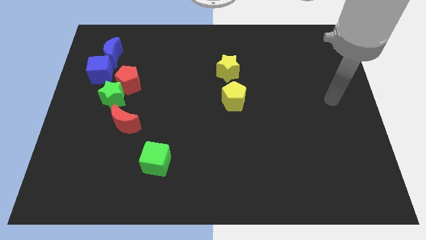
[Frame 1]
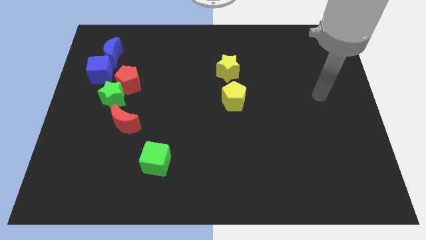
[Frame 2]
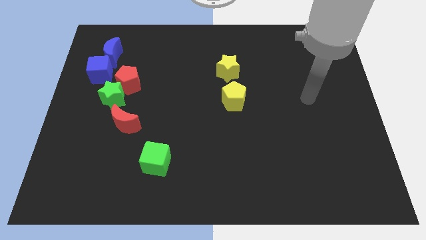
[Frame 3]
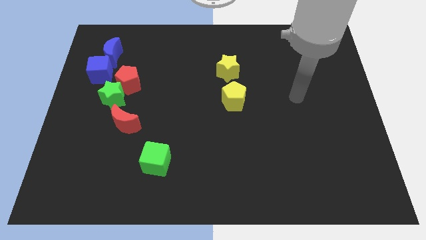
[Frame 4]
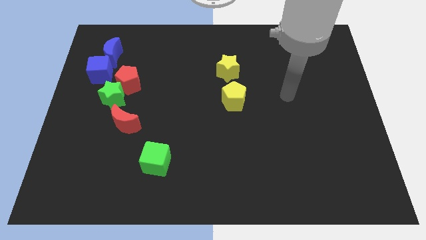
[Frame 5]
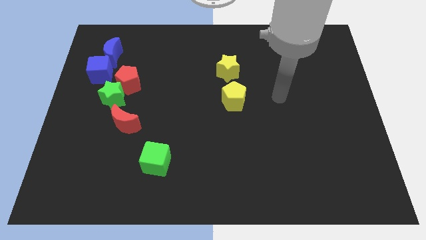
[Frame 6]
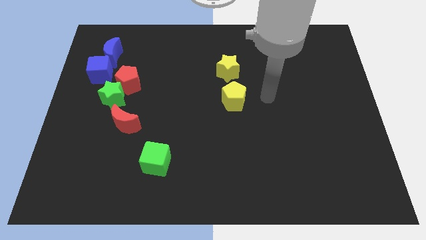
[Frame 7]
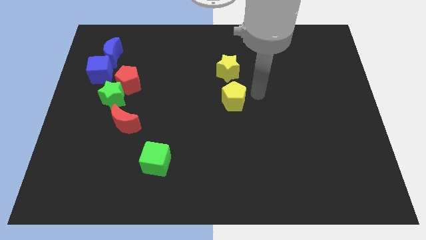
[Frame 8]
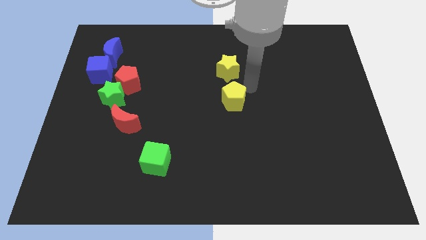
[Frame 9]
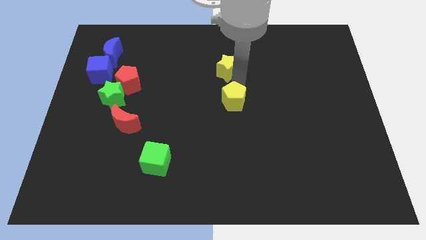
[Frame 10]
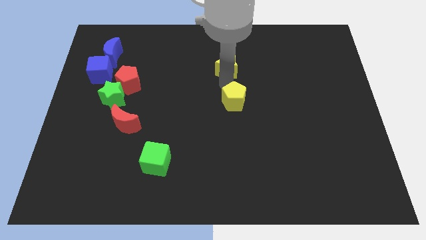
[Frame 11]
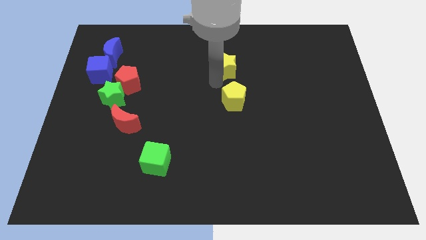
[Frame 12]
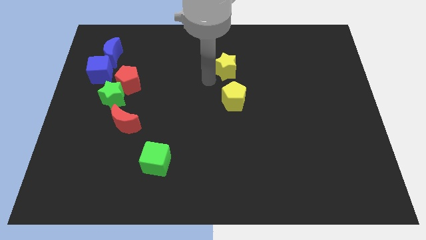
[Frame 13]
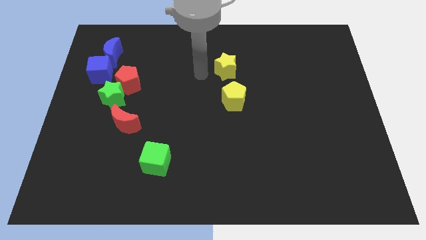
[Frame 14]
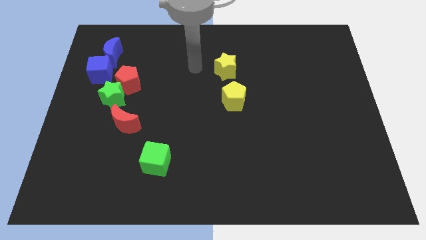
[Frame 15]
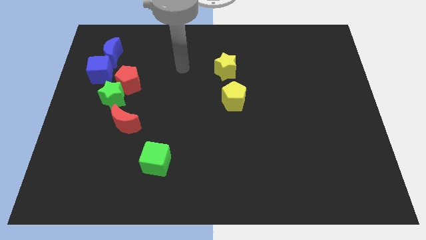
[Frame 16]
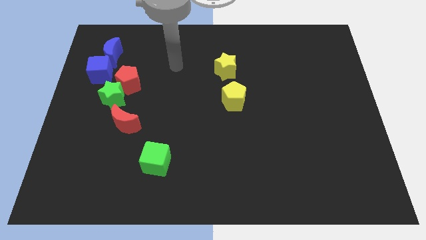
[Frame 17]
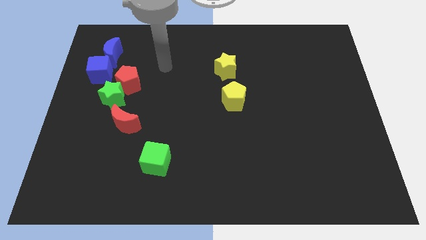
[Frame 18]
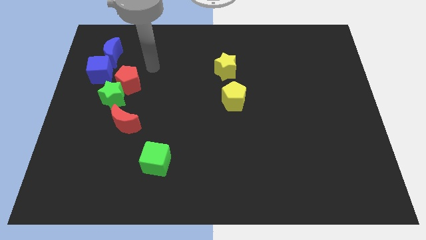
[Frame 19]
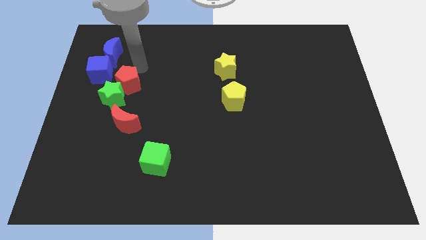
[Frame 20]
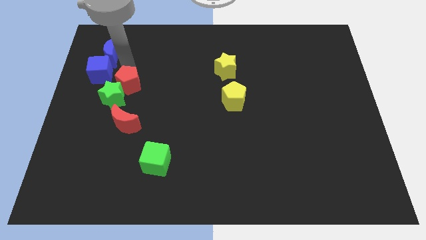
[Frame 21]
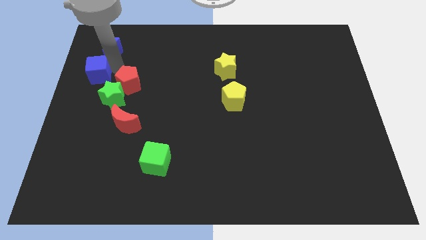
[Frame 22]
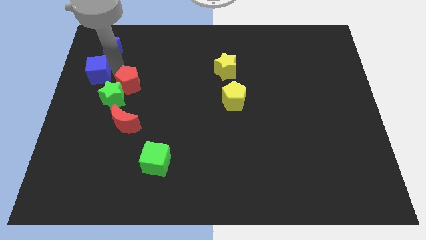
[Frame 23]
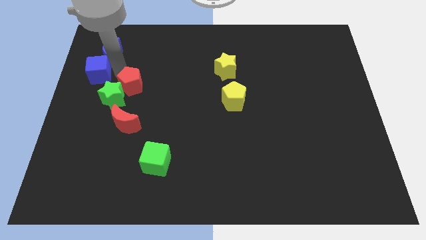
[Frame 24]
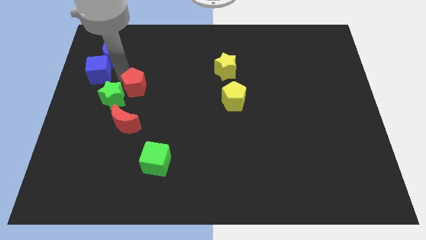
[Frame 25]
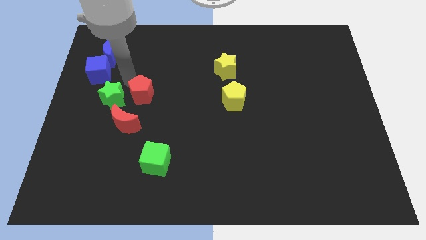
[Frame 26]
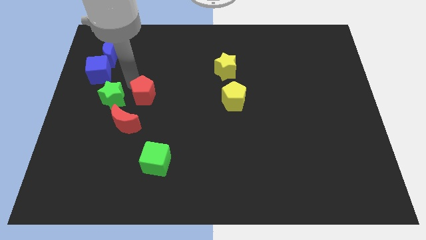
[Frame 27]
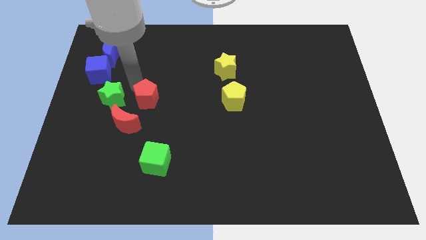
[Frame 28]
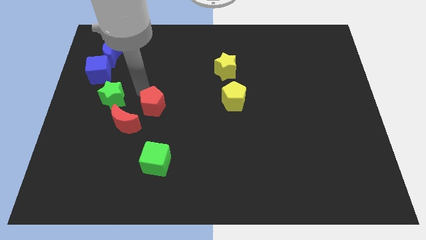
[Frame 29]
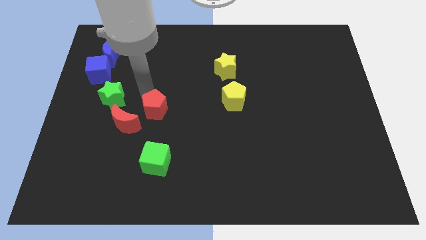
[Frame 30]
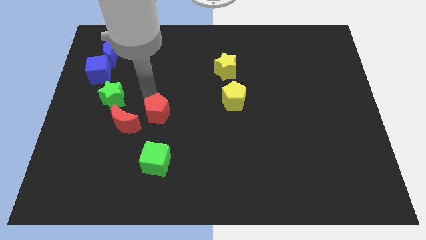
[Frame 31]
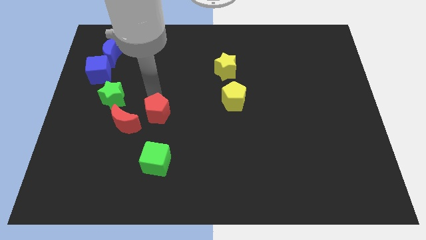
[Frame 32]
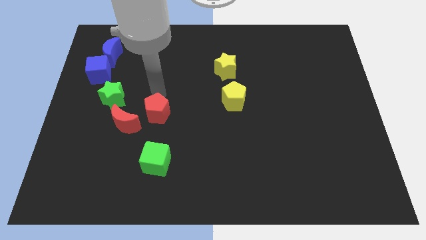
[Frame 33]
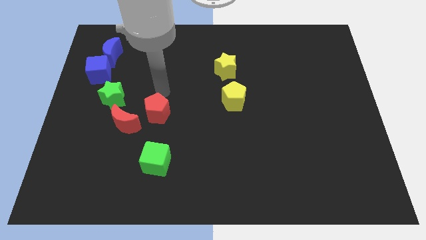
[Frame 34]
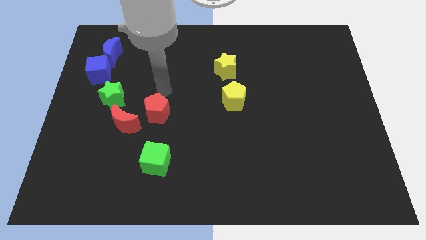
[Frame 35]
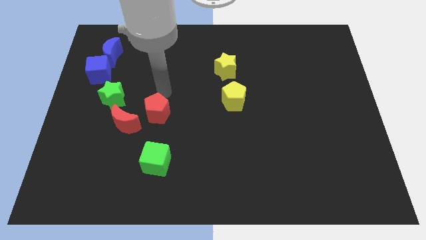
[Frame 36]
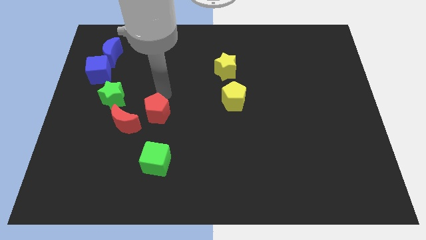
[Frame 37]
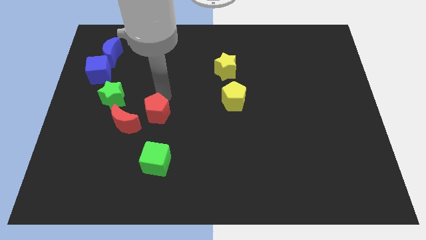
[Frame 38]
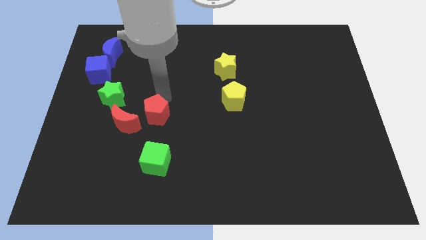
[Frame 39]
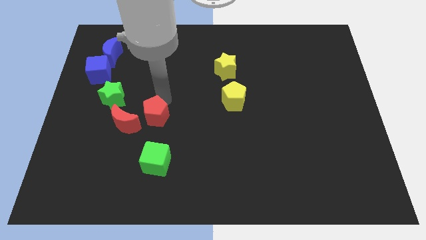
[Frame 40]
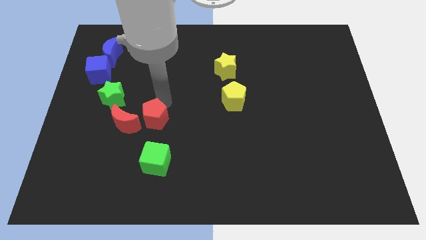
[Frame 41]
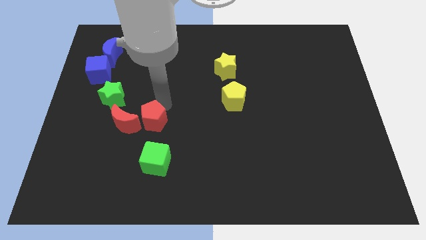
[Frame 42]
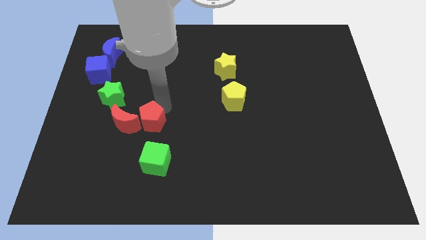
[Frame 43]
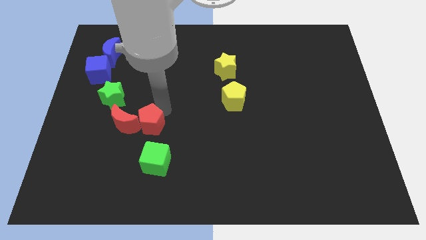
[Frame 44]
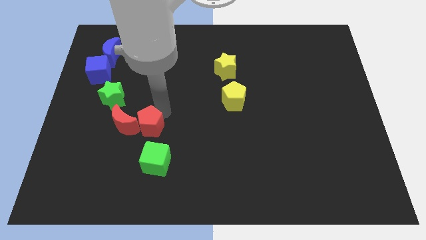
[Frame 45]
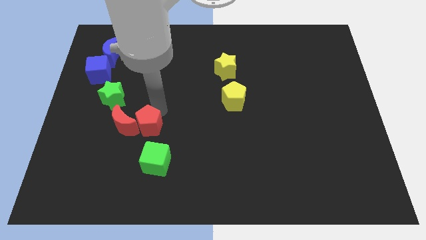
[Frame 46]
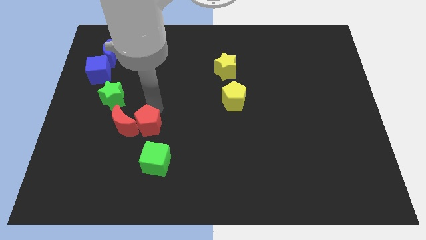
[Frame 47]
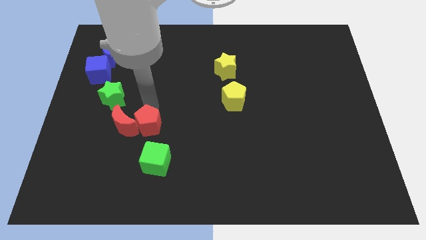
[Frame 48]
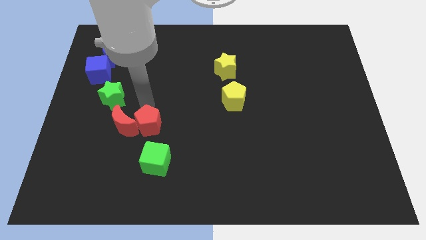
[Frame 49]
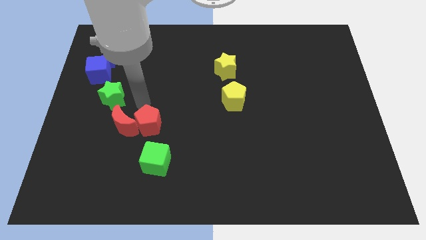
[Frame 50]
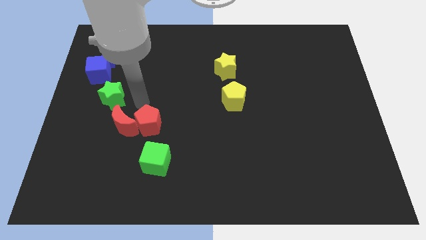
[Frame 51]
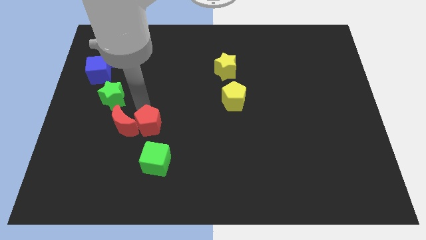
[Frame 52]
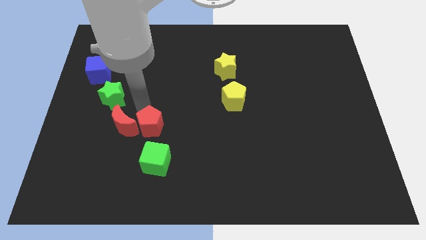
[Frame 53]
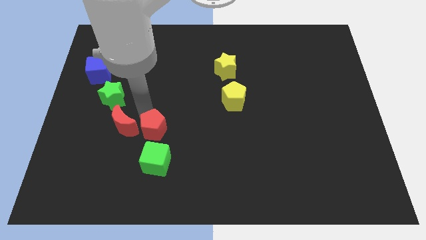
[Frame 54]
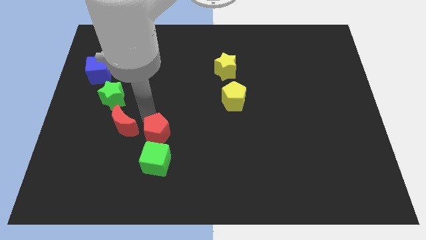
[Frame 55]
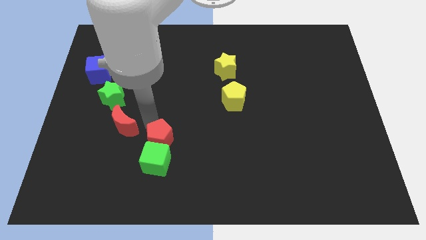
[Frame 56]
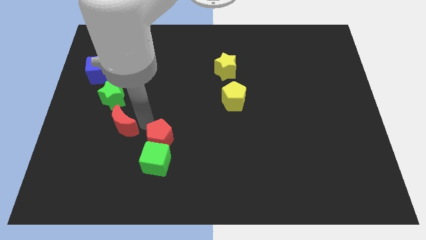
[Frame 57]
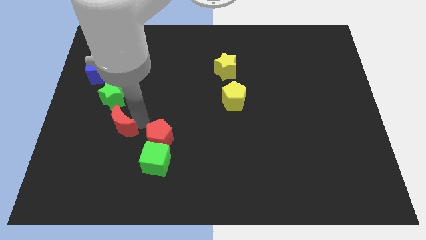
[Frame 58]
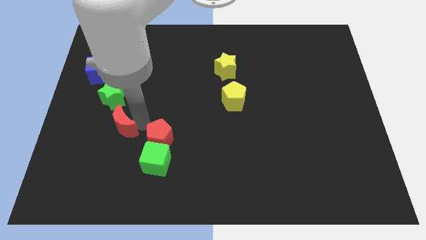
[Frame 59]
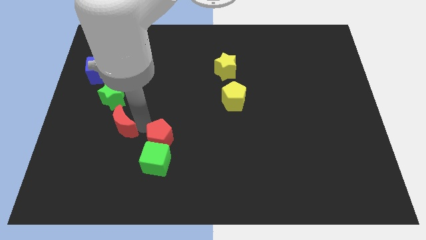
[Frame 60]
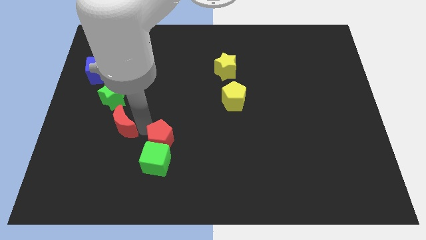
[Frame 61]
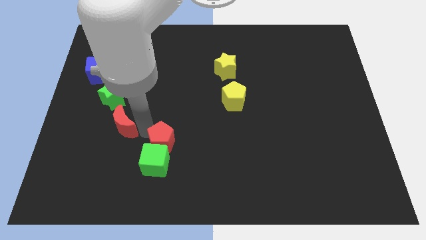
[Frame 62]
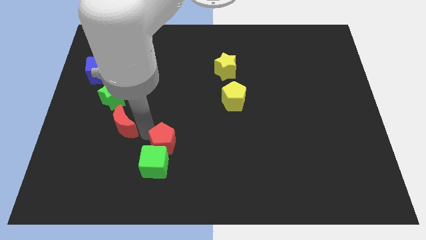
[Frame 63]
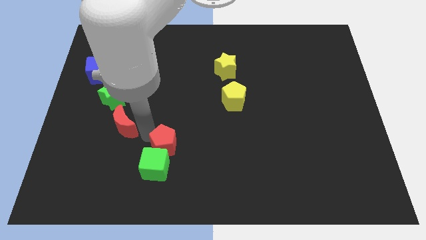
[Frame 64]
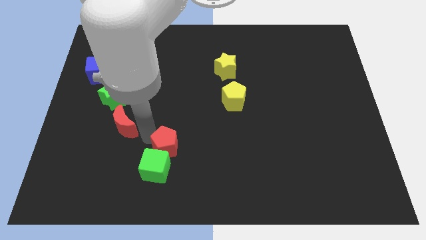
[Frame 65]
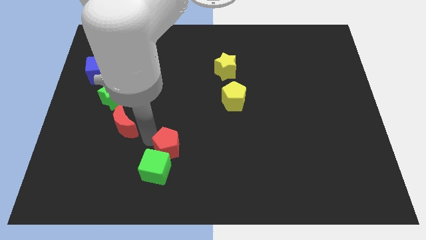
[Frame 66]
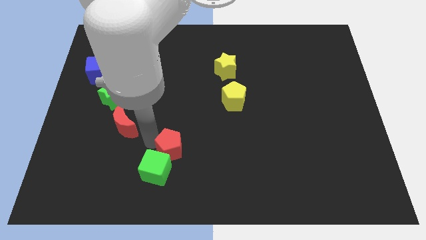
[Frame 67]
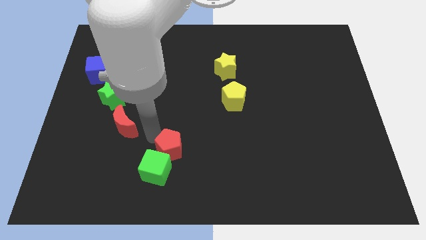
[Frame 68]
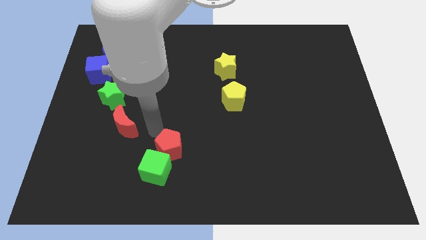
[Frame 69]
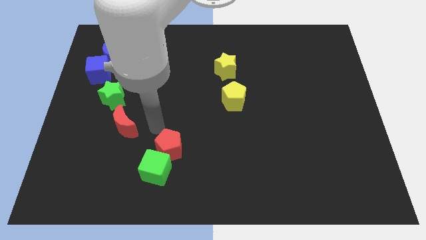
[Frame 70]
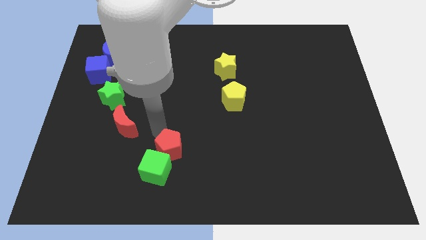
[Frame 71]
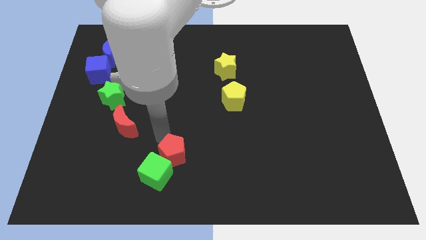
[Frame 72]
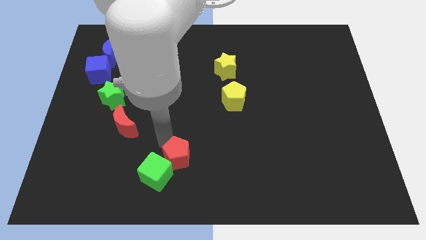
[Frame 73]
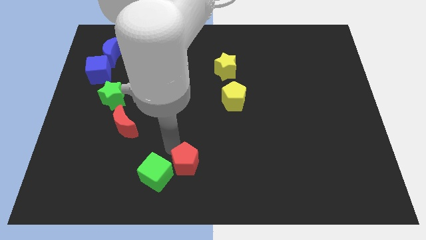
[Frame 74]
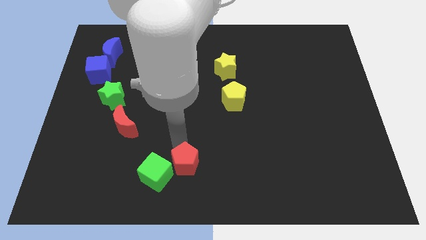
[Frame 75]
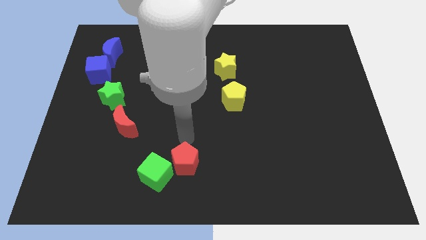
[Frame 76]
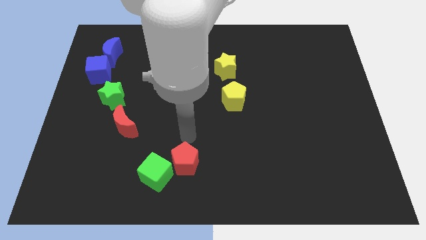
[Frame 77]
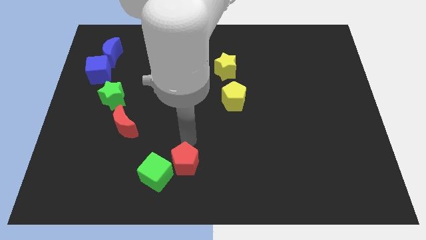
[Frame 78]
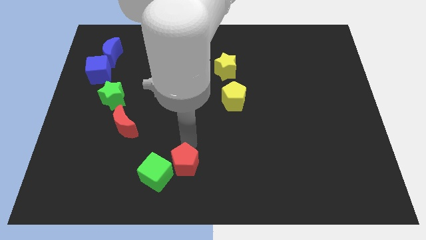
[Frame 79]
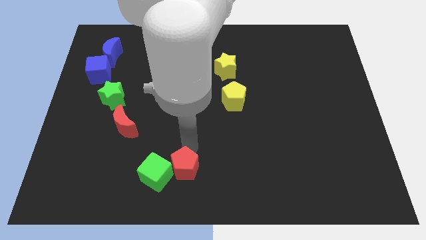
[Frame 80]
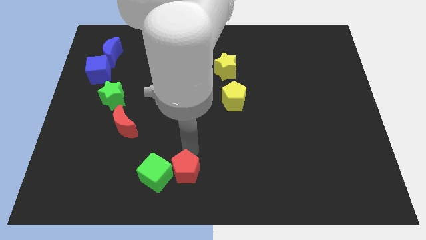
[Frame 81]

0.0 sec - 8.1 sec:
put the red pentagon to the bottom right of the green cube
